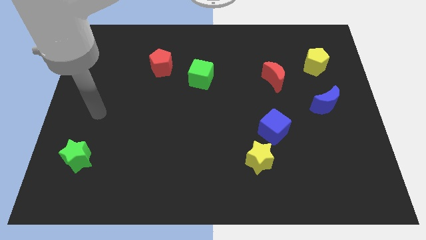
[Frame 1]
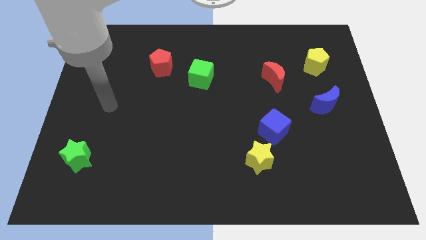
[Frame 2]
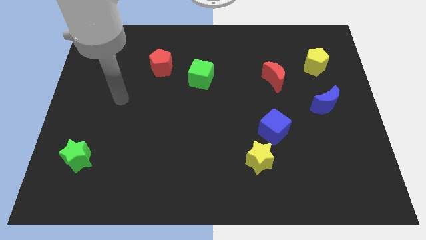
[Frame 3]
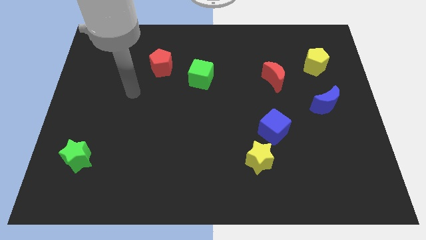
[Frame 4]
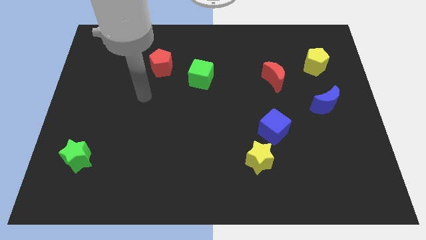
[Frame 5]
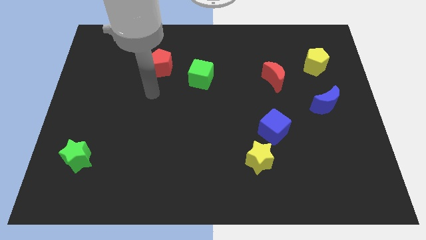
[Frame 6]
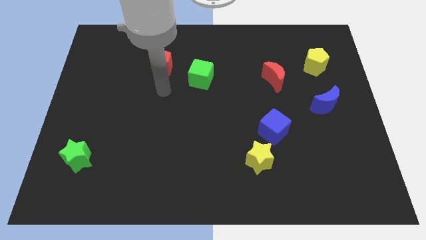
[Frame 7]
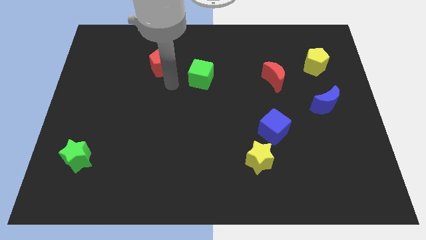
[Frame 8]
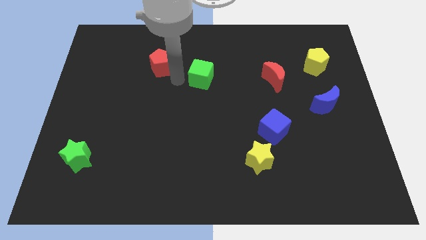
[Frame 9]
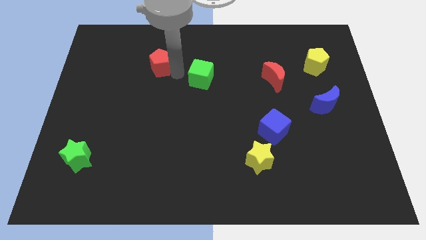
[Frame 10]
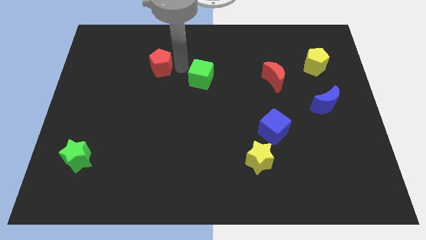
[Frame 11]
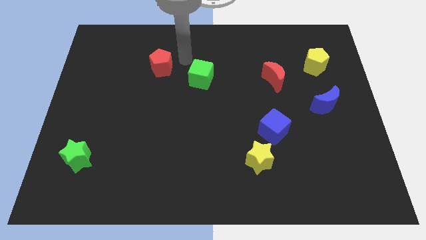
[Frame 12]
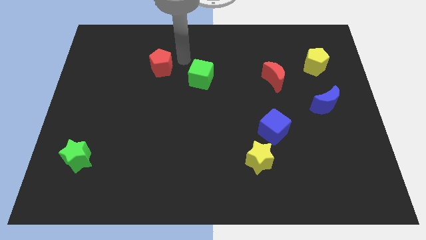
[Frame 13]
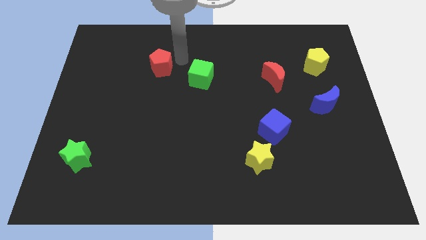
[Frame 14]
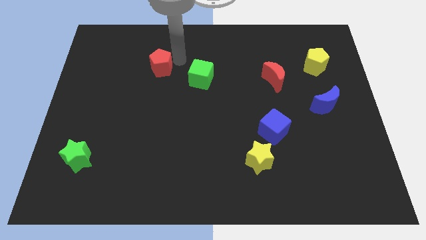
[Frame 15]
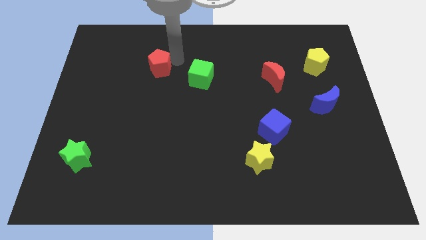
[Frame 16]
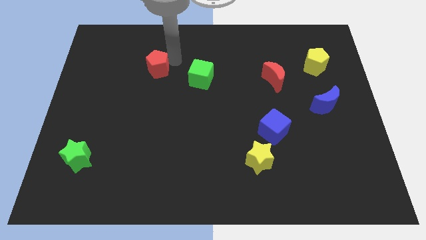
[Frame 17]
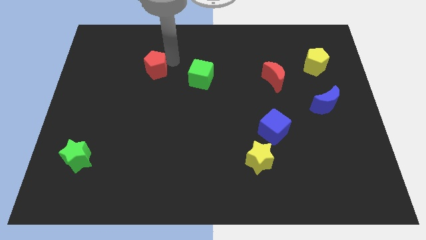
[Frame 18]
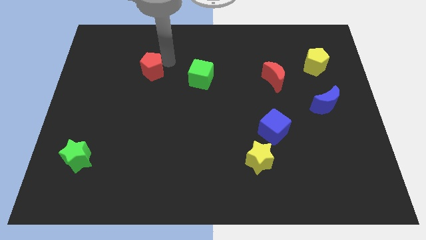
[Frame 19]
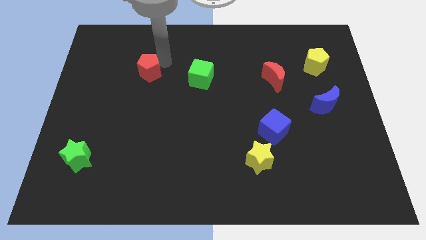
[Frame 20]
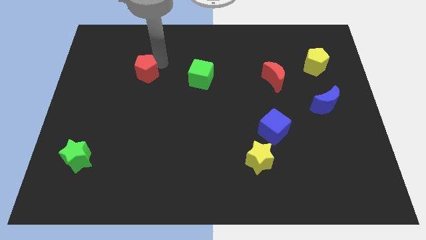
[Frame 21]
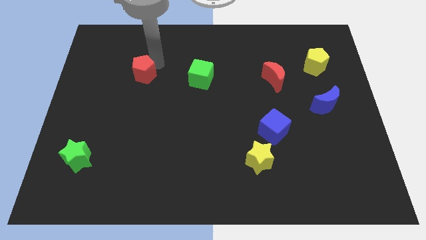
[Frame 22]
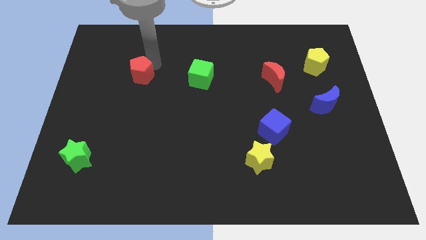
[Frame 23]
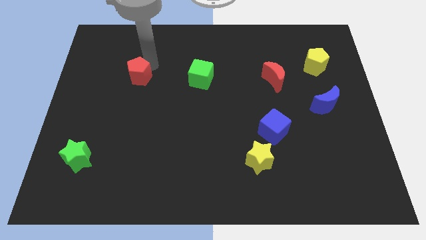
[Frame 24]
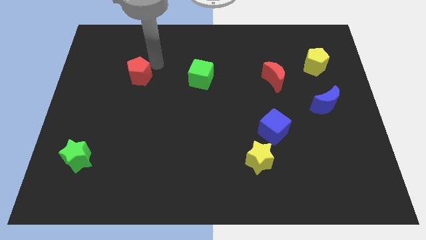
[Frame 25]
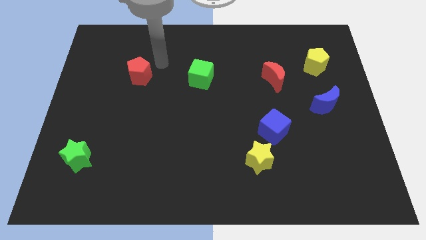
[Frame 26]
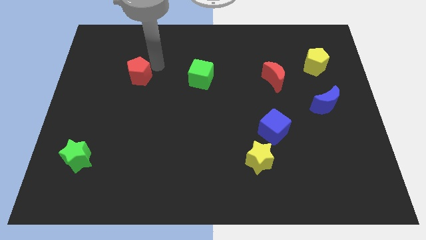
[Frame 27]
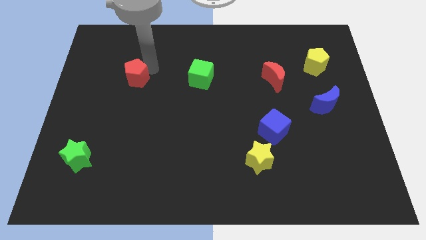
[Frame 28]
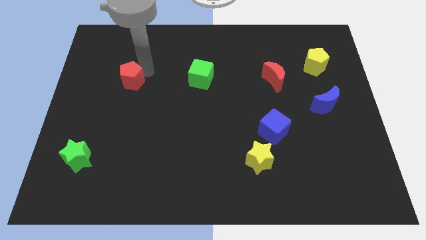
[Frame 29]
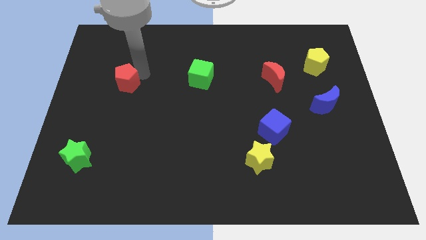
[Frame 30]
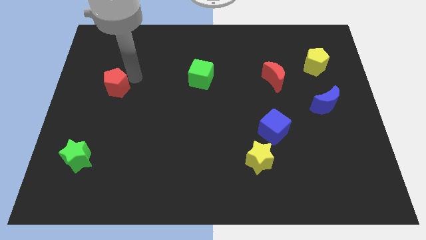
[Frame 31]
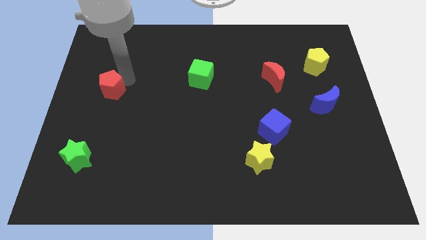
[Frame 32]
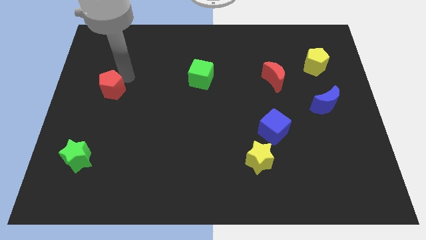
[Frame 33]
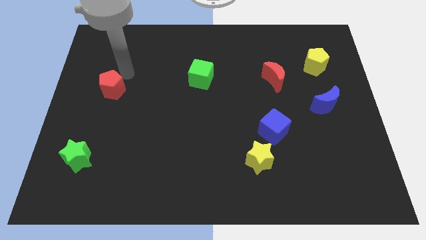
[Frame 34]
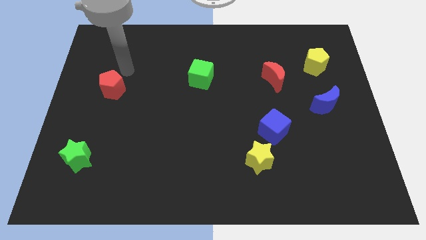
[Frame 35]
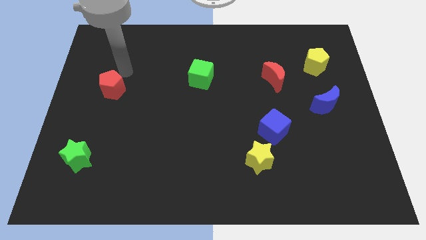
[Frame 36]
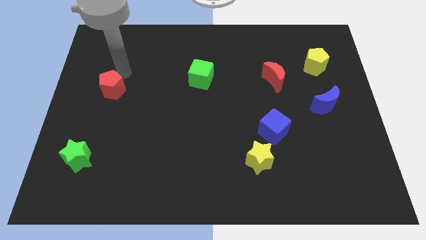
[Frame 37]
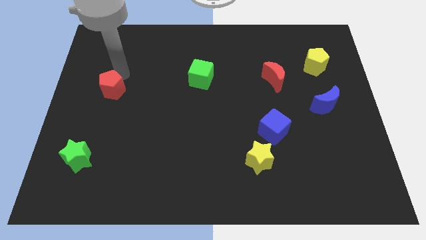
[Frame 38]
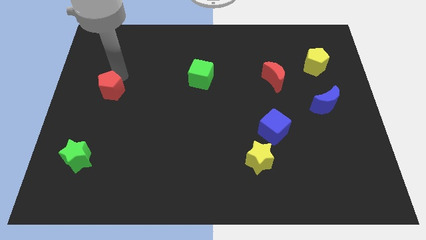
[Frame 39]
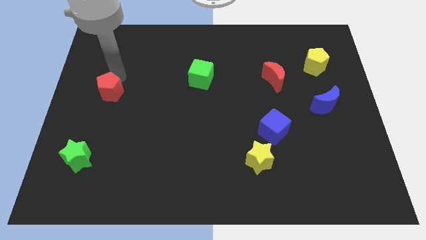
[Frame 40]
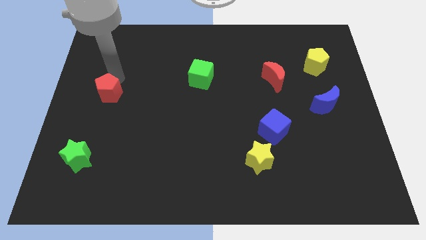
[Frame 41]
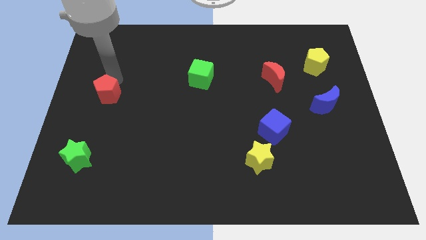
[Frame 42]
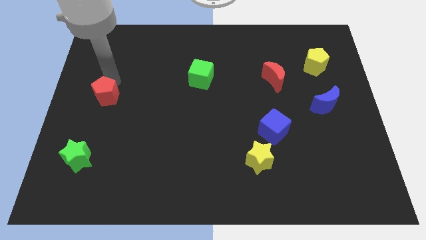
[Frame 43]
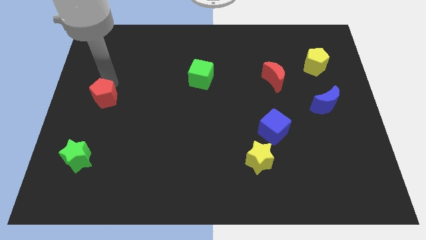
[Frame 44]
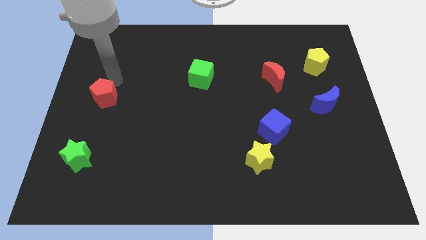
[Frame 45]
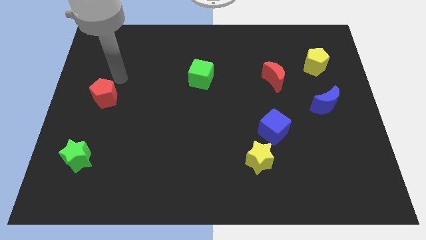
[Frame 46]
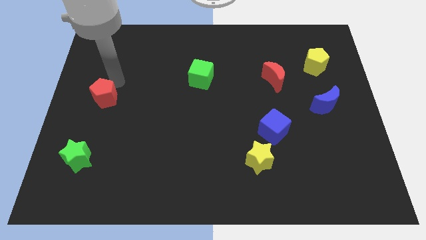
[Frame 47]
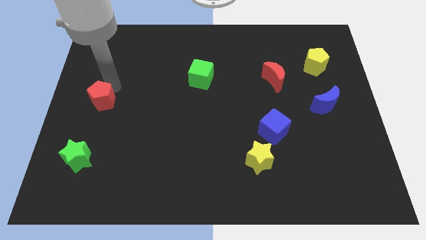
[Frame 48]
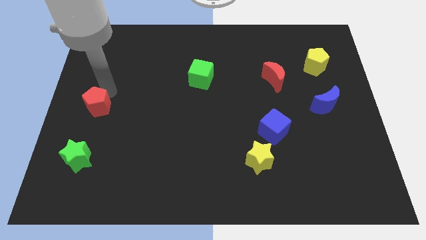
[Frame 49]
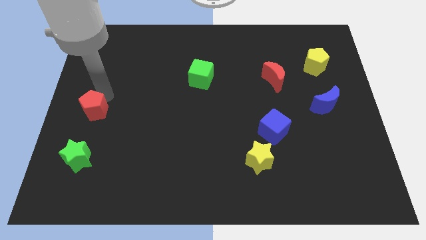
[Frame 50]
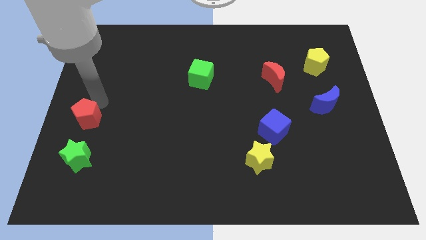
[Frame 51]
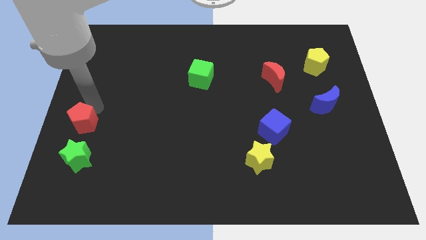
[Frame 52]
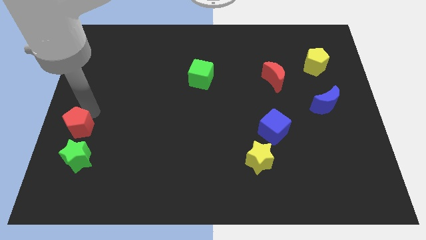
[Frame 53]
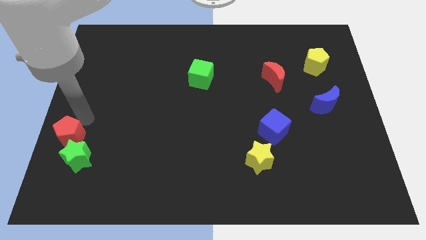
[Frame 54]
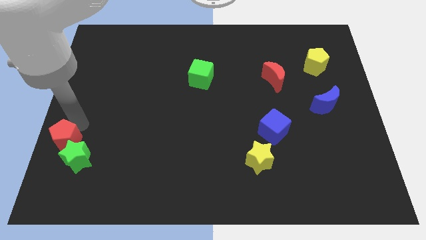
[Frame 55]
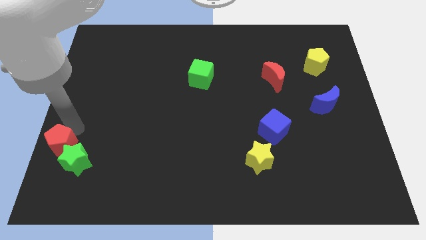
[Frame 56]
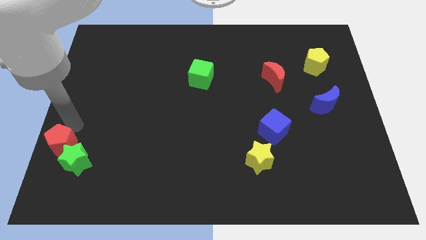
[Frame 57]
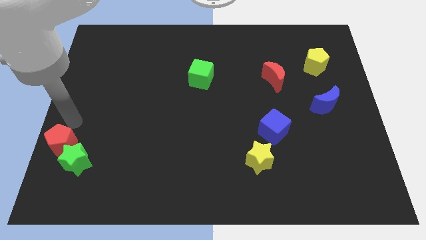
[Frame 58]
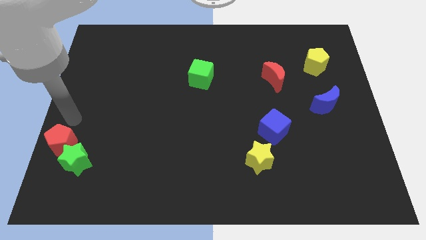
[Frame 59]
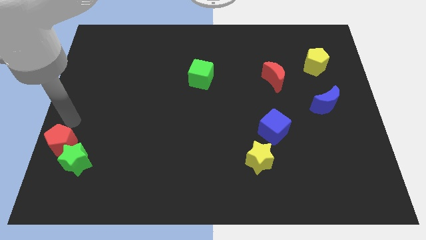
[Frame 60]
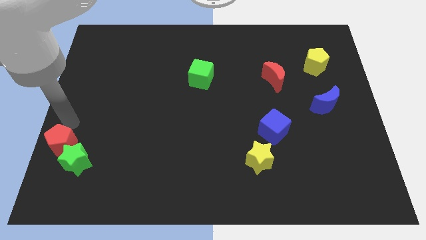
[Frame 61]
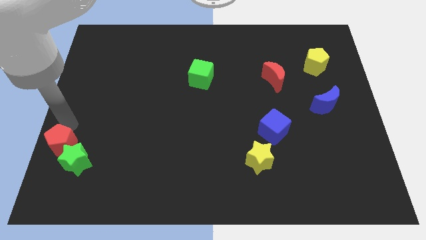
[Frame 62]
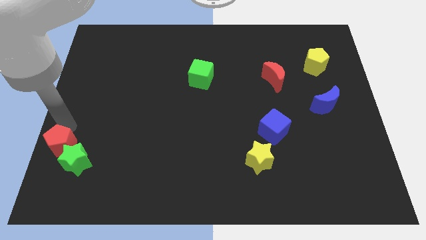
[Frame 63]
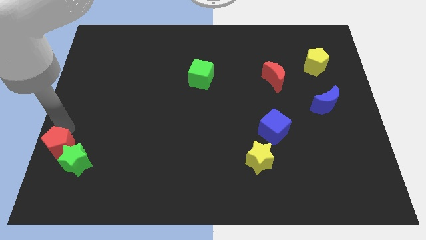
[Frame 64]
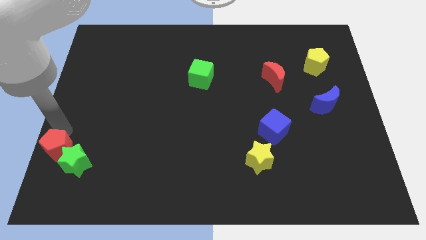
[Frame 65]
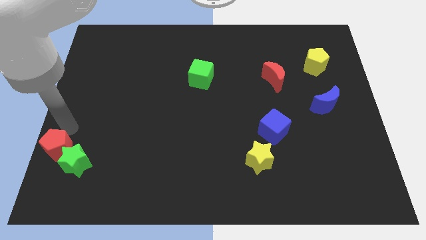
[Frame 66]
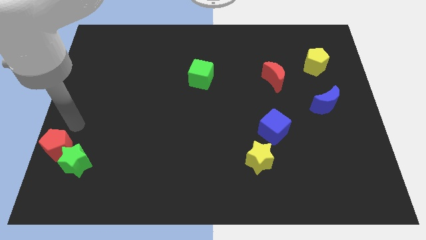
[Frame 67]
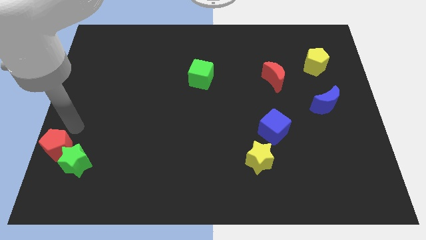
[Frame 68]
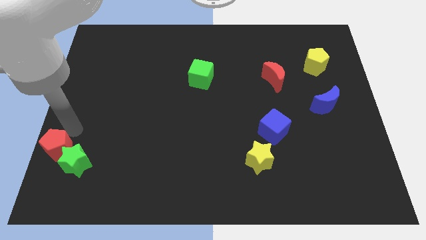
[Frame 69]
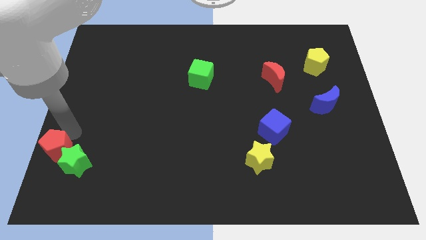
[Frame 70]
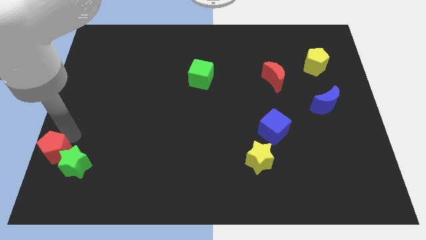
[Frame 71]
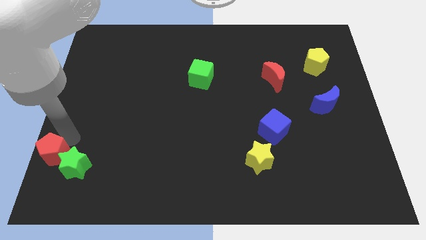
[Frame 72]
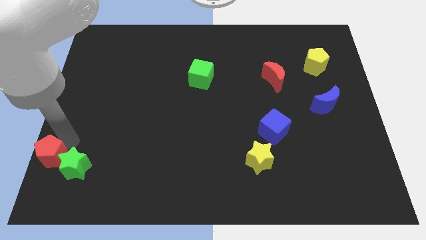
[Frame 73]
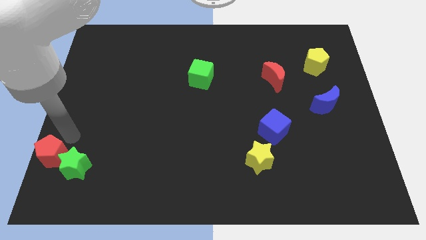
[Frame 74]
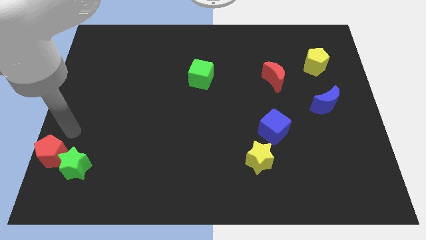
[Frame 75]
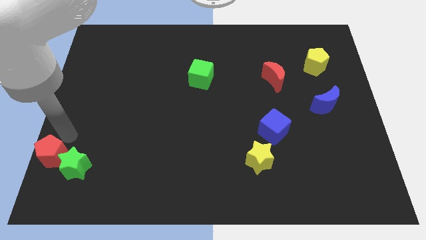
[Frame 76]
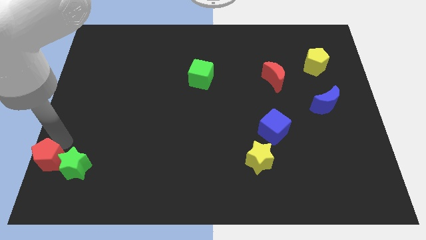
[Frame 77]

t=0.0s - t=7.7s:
push the red pentagon to the bottom left
